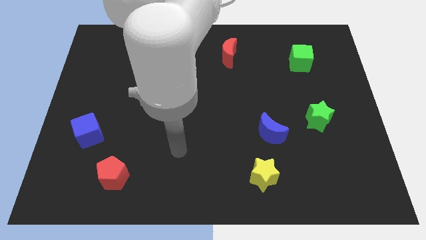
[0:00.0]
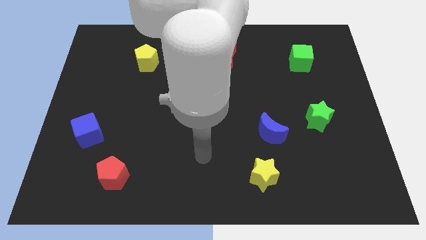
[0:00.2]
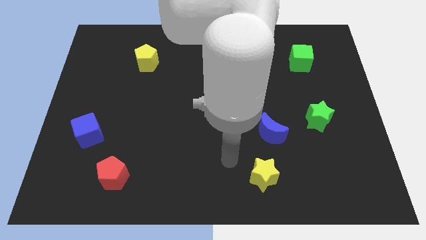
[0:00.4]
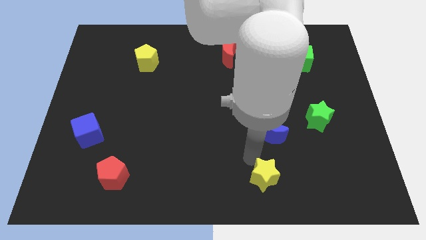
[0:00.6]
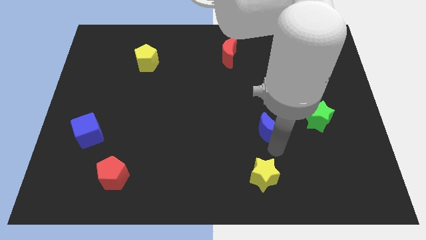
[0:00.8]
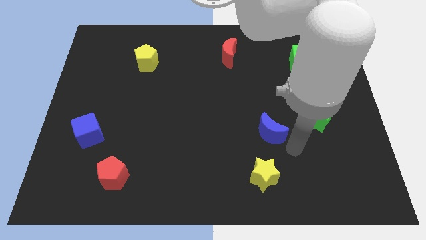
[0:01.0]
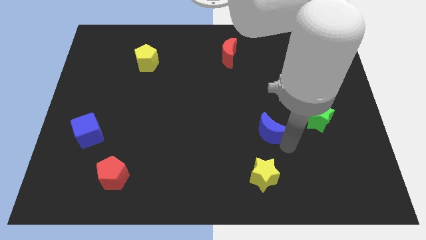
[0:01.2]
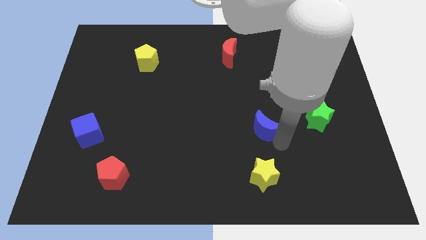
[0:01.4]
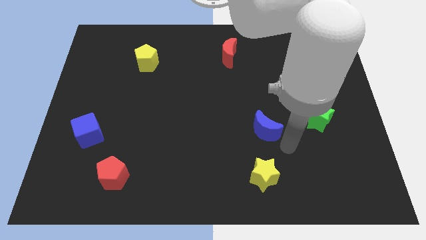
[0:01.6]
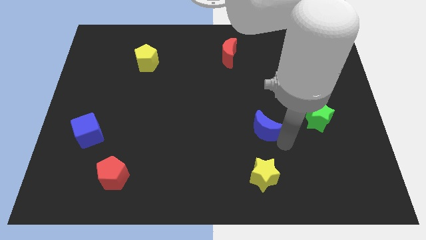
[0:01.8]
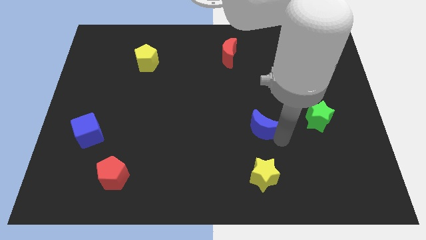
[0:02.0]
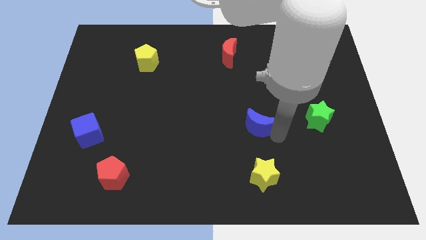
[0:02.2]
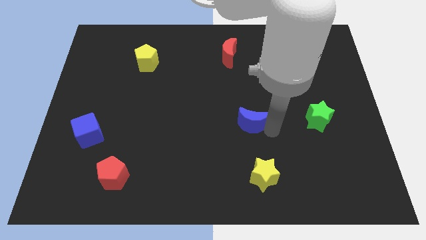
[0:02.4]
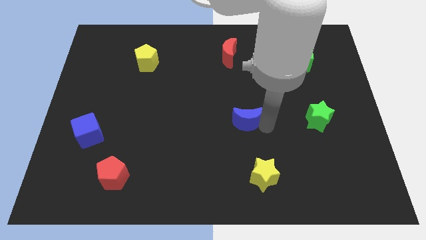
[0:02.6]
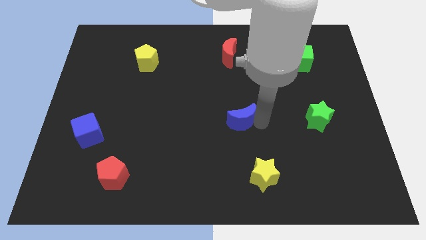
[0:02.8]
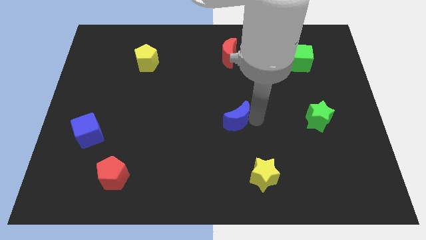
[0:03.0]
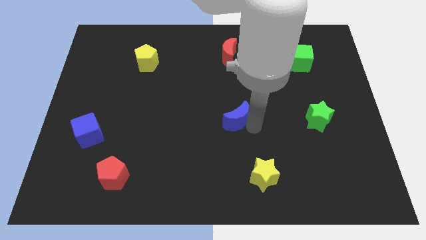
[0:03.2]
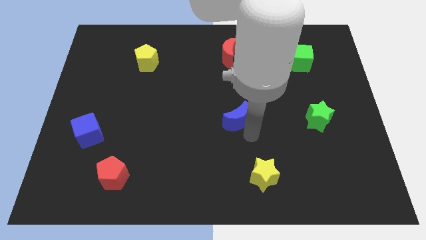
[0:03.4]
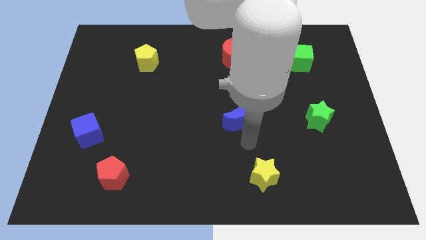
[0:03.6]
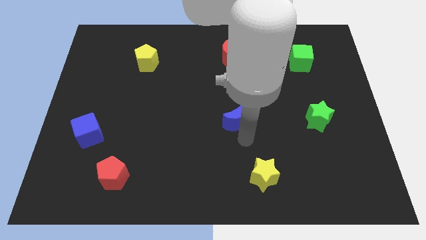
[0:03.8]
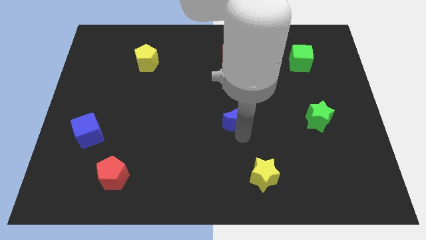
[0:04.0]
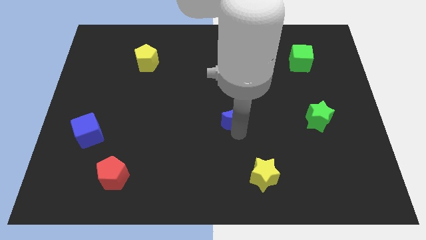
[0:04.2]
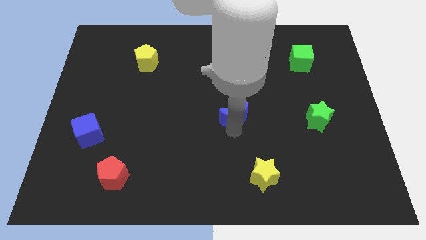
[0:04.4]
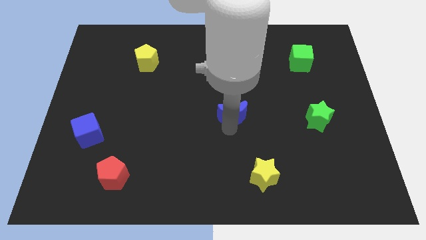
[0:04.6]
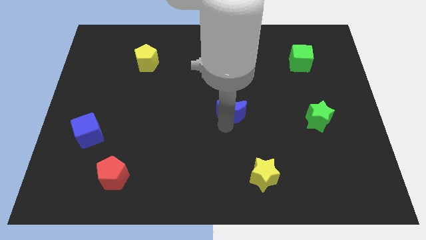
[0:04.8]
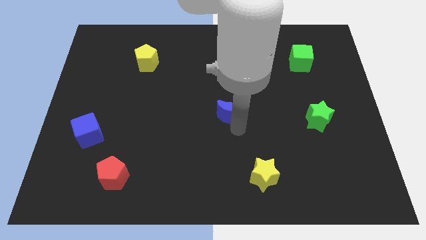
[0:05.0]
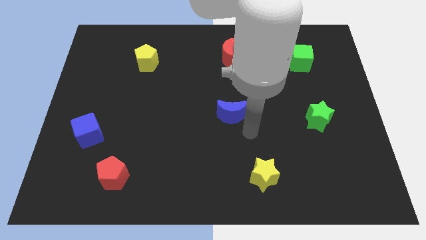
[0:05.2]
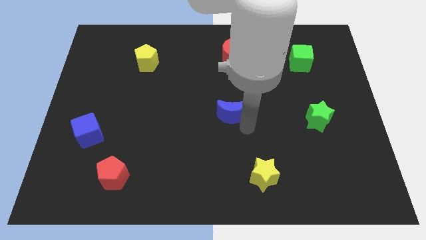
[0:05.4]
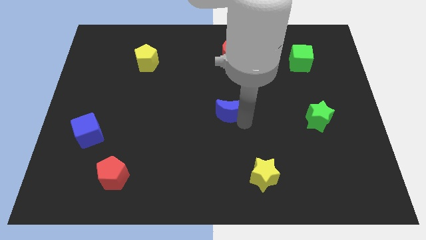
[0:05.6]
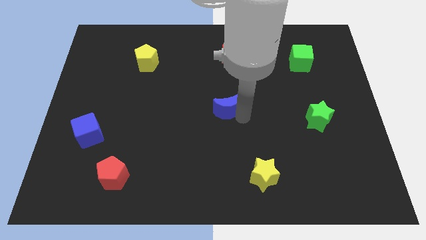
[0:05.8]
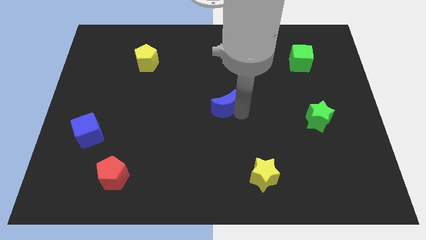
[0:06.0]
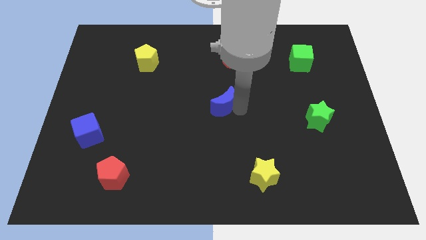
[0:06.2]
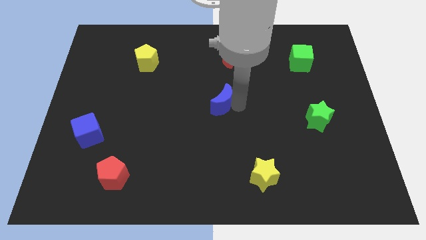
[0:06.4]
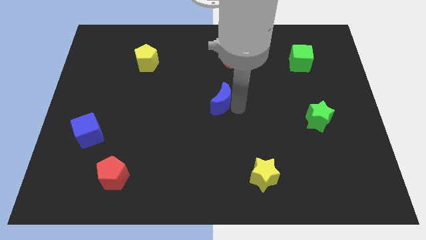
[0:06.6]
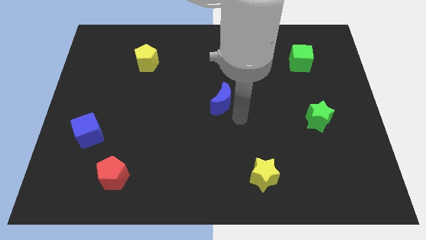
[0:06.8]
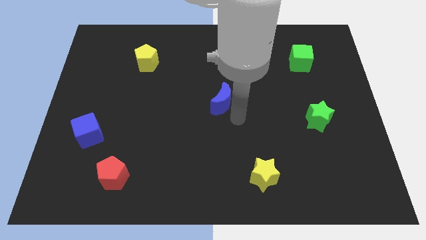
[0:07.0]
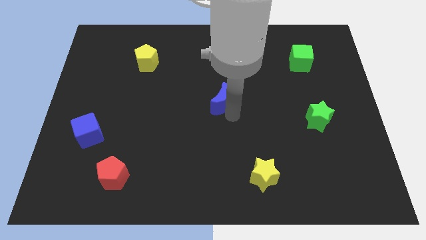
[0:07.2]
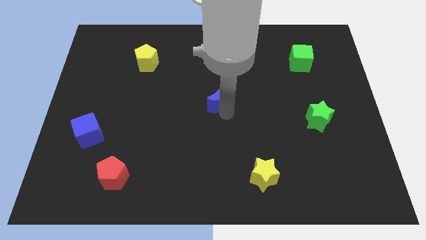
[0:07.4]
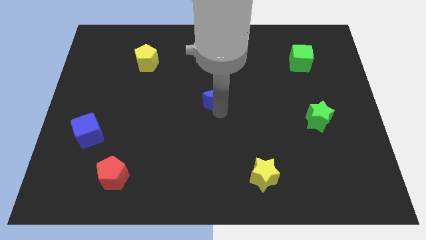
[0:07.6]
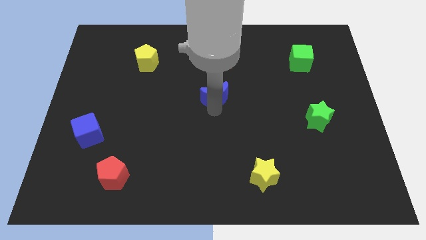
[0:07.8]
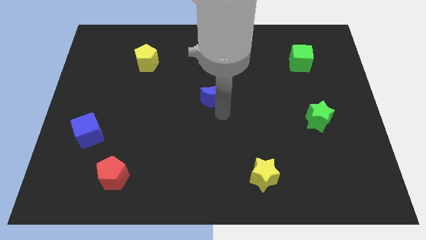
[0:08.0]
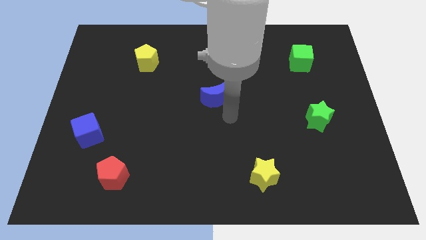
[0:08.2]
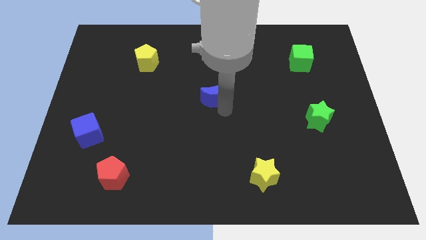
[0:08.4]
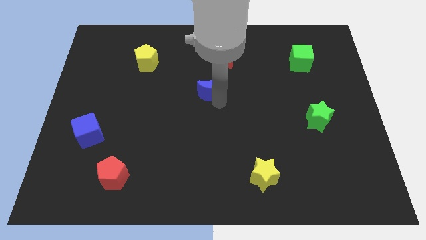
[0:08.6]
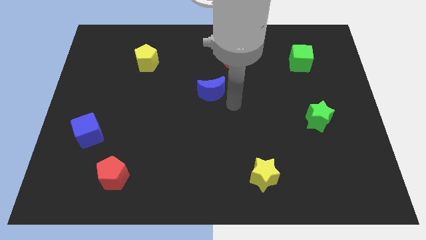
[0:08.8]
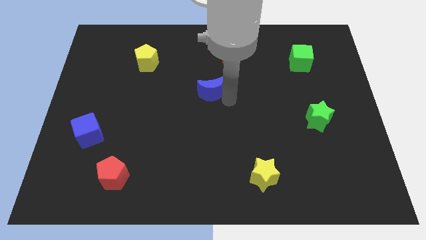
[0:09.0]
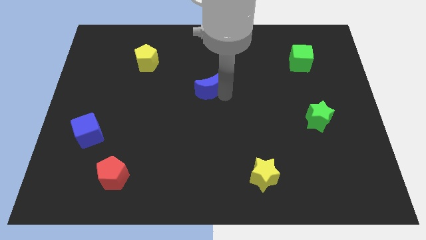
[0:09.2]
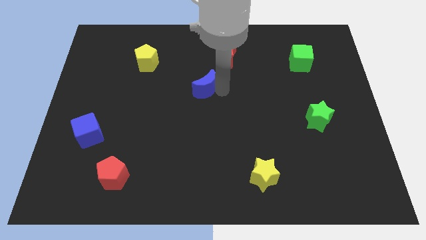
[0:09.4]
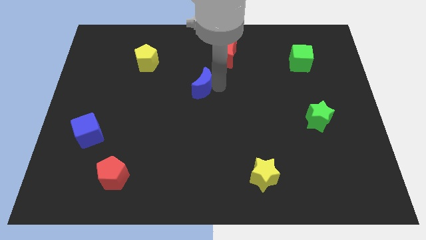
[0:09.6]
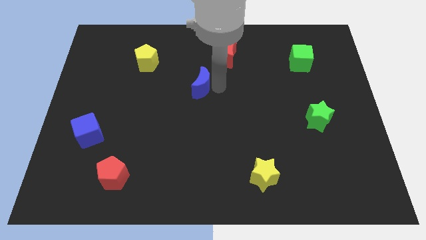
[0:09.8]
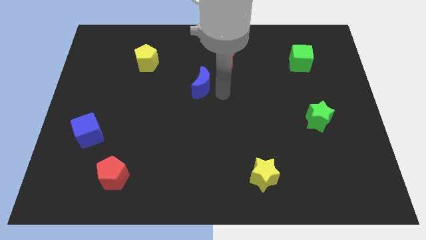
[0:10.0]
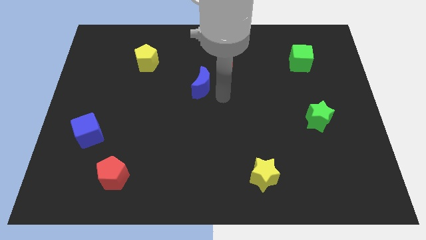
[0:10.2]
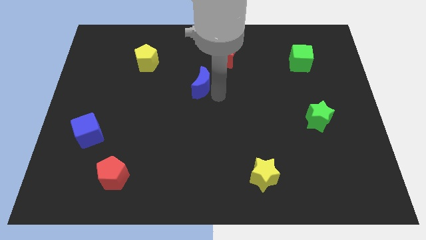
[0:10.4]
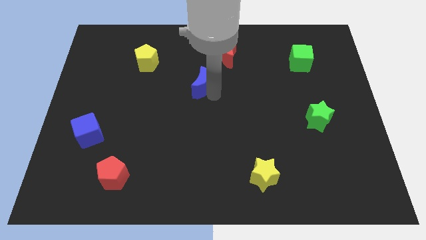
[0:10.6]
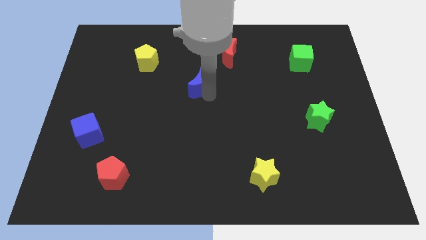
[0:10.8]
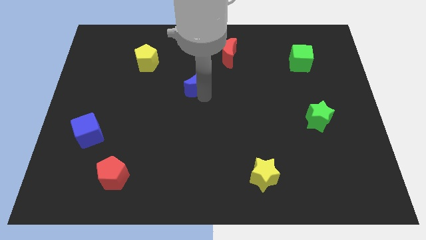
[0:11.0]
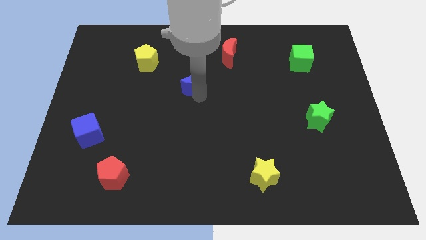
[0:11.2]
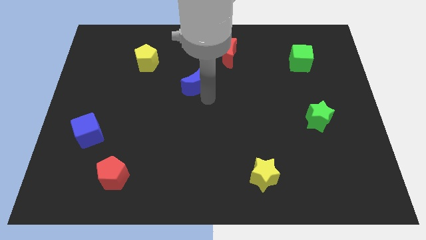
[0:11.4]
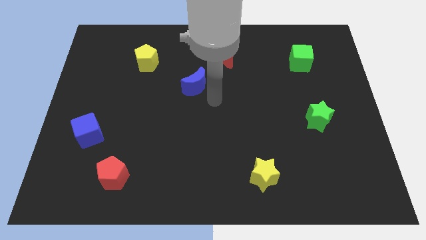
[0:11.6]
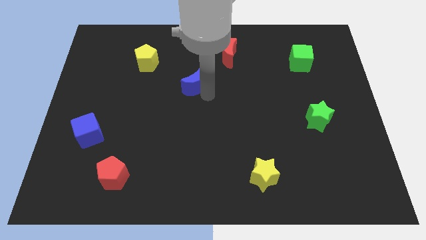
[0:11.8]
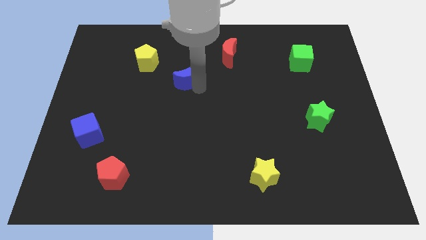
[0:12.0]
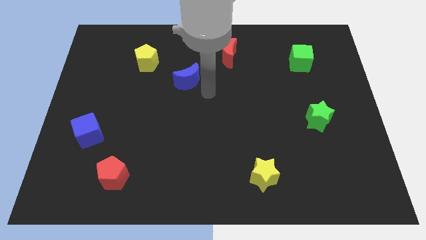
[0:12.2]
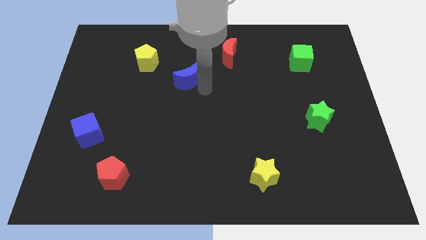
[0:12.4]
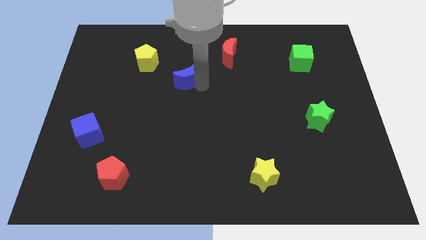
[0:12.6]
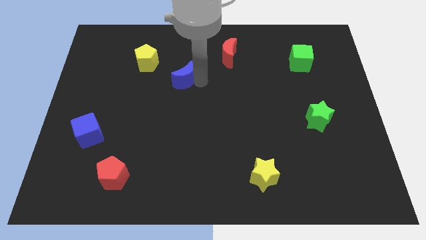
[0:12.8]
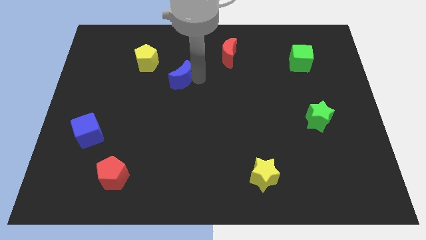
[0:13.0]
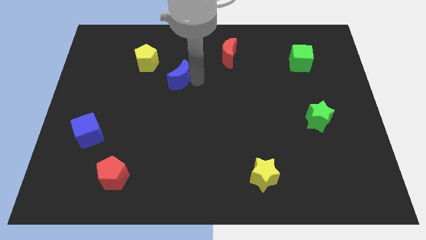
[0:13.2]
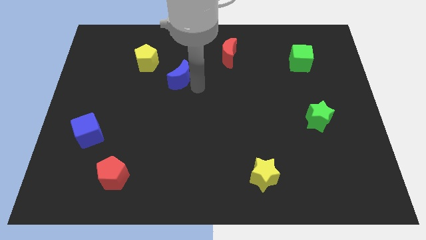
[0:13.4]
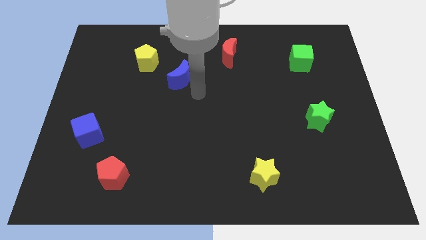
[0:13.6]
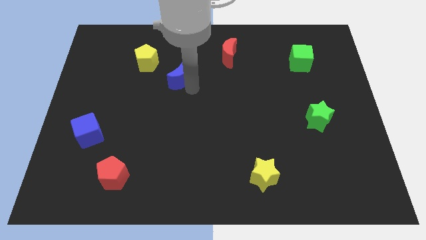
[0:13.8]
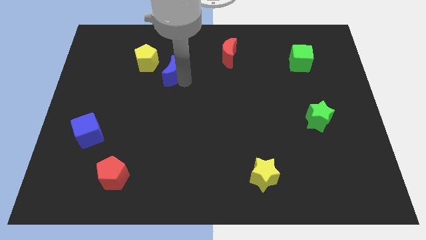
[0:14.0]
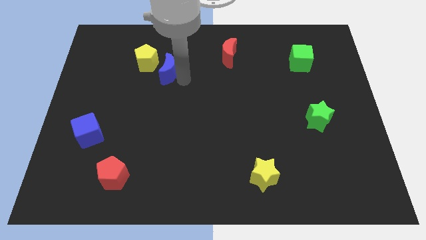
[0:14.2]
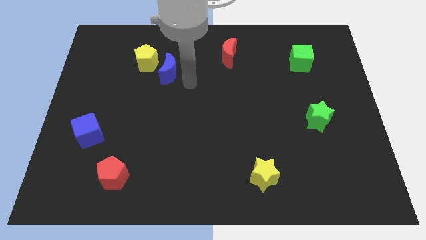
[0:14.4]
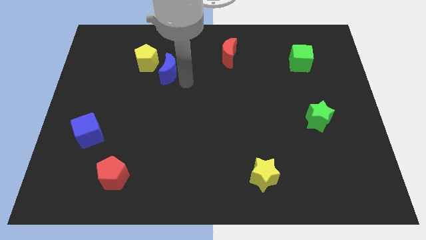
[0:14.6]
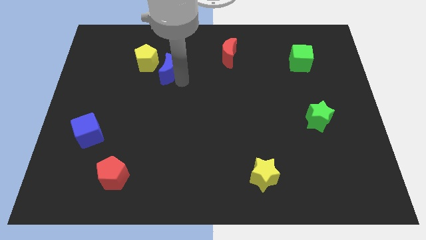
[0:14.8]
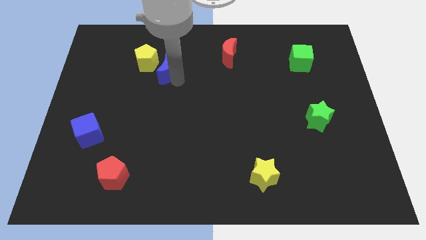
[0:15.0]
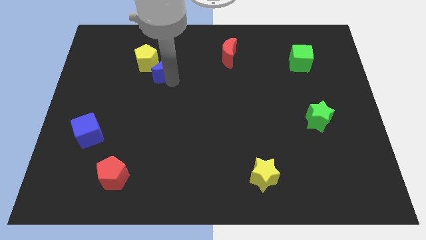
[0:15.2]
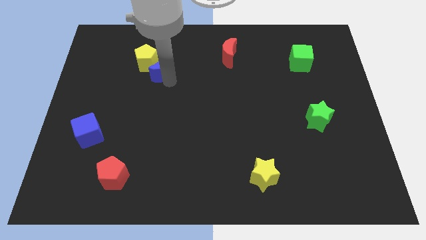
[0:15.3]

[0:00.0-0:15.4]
slide the blue moon close to the yellow pentagon
